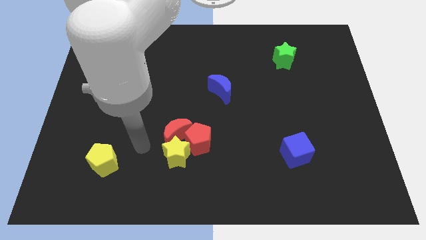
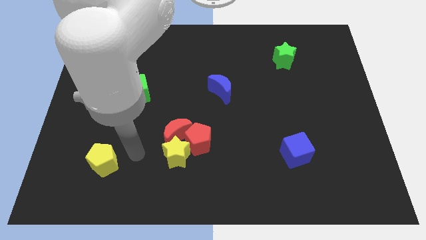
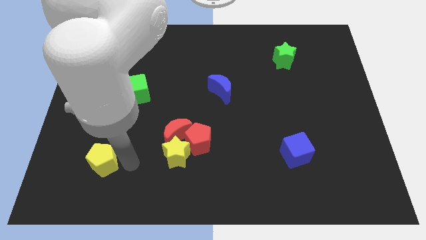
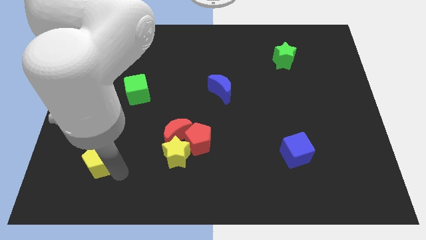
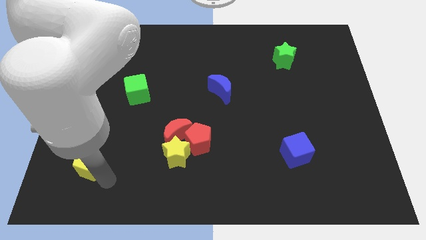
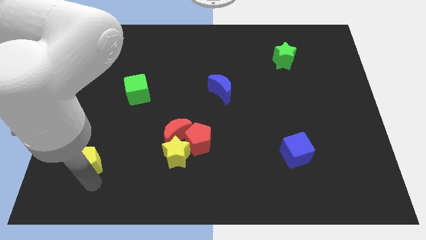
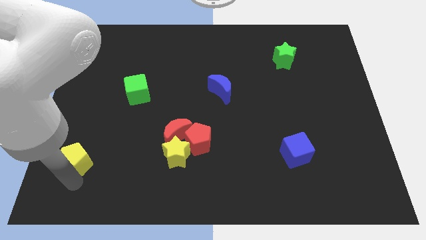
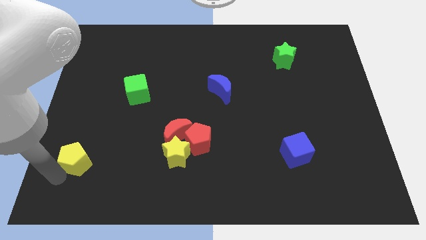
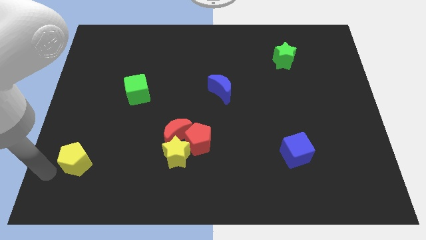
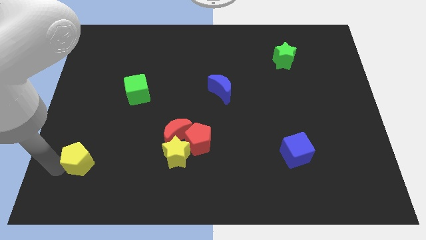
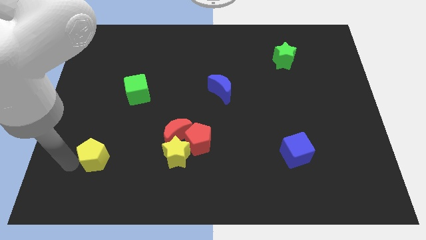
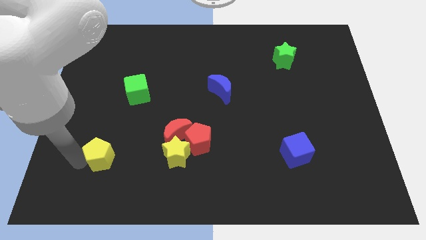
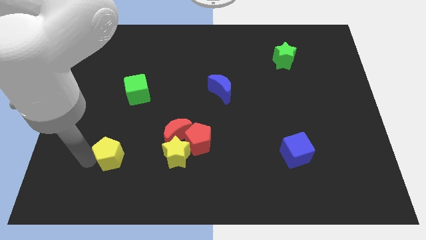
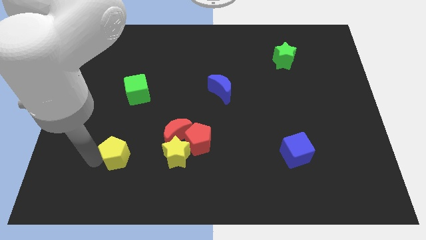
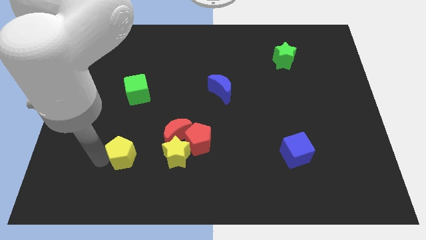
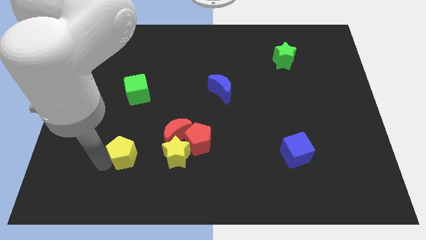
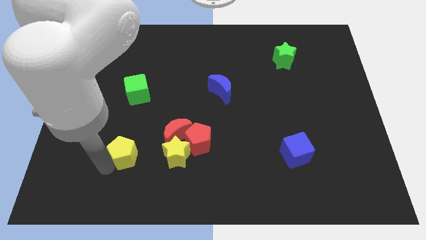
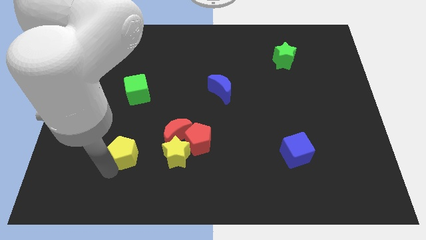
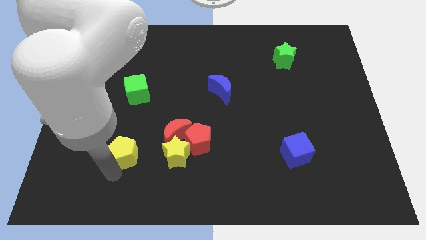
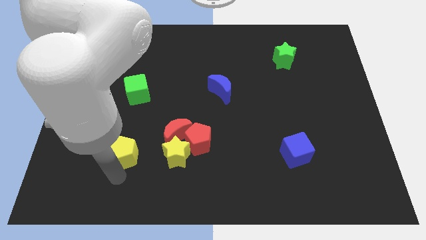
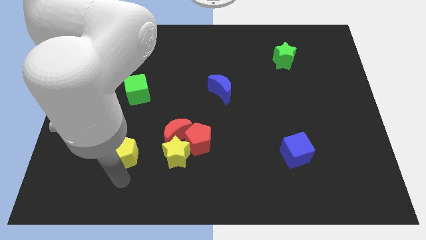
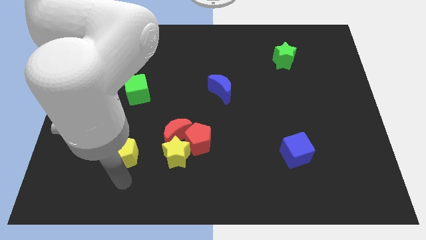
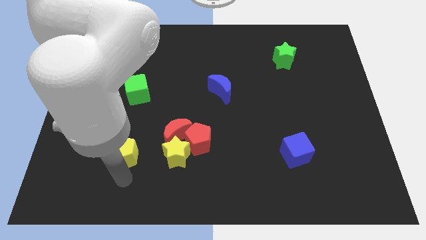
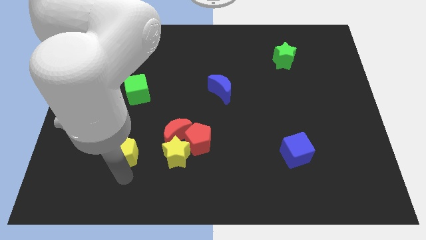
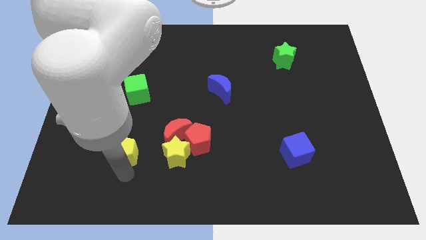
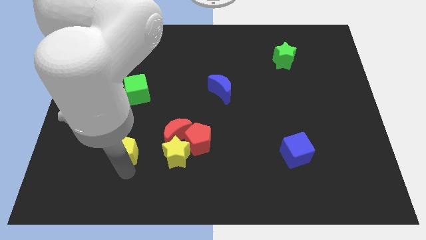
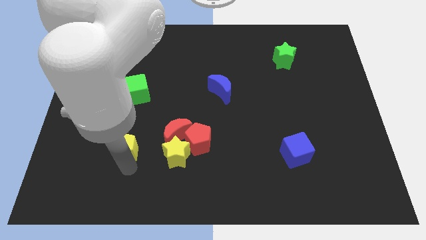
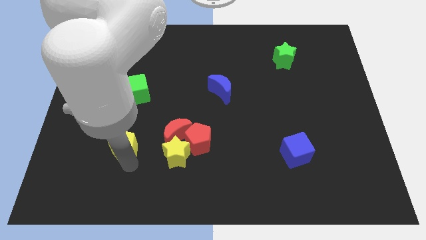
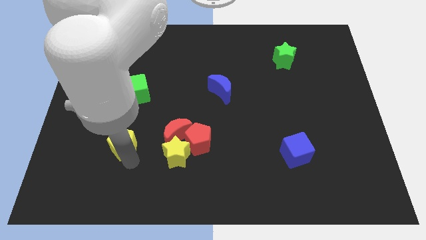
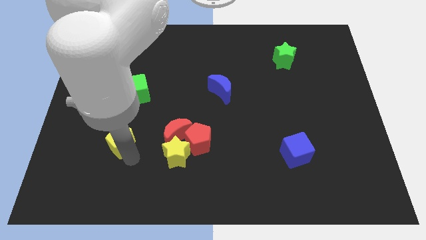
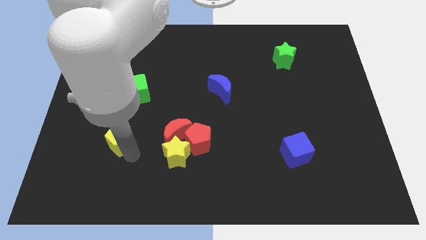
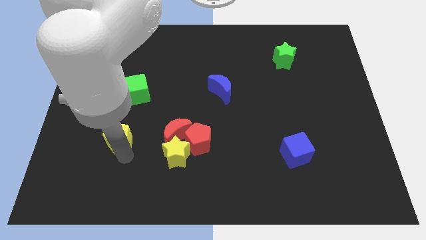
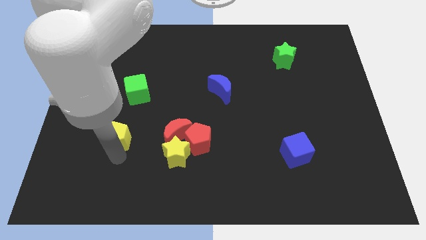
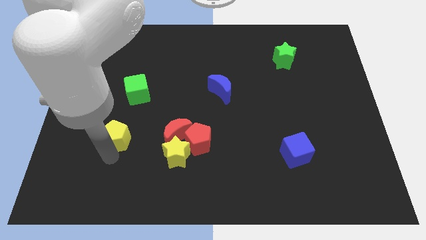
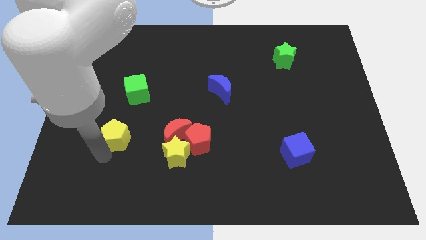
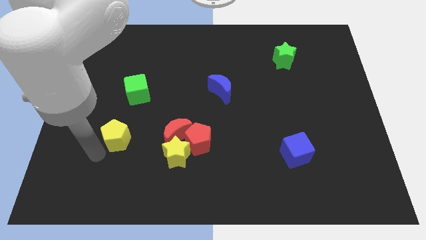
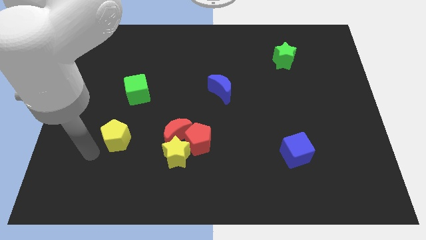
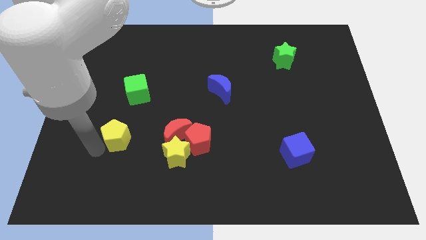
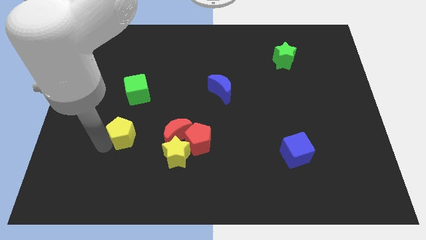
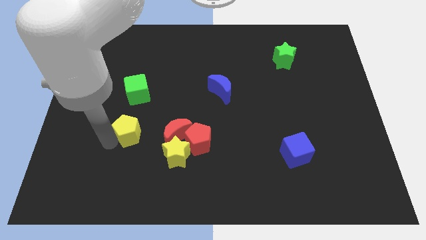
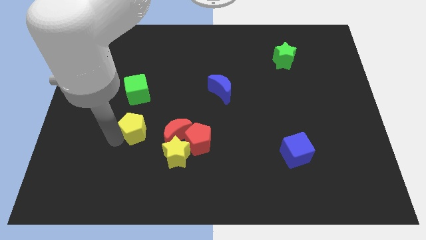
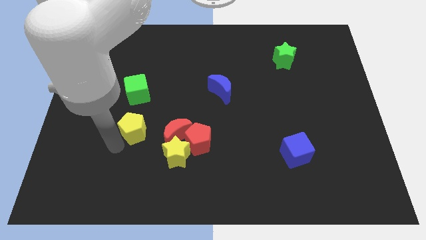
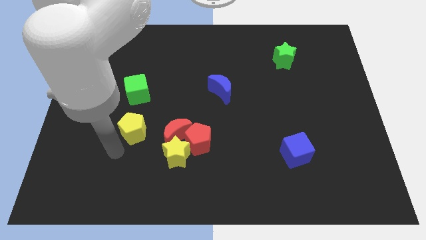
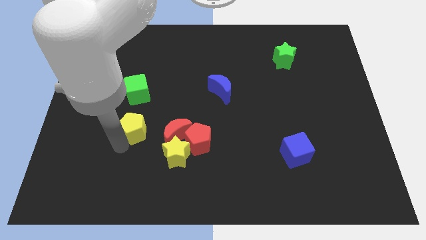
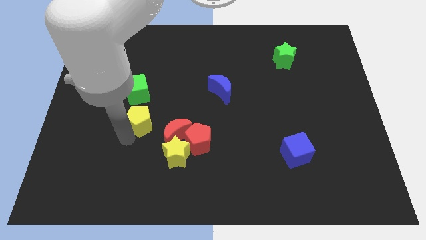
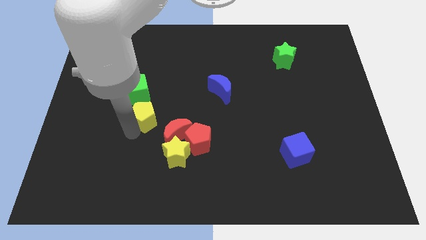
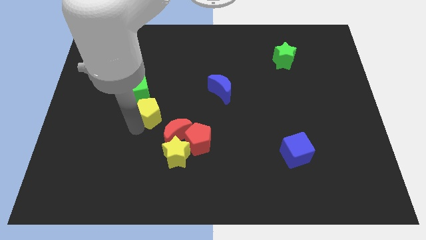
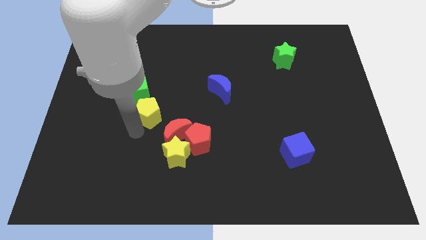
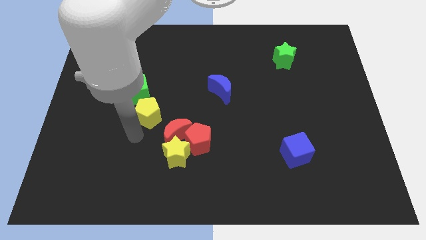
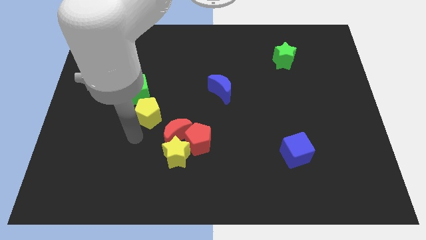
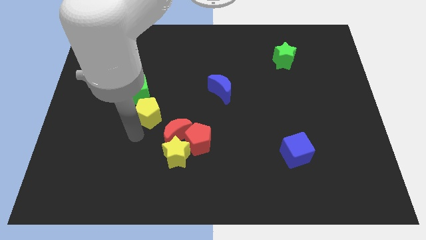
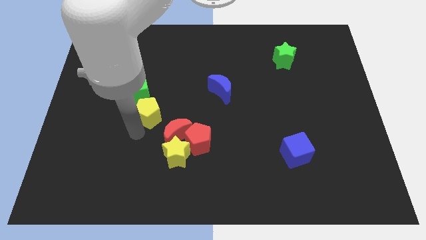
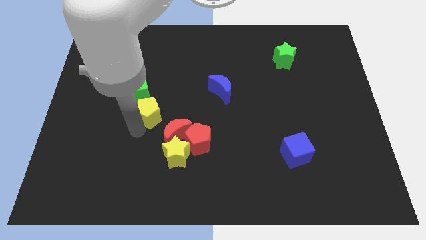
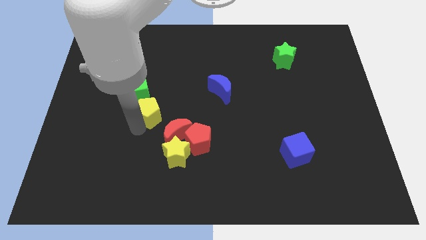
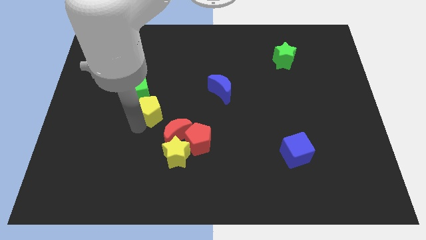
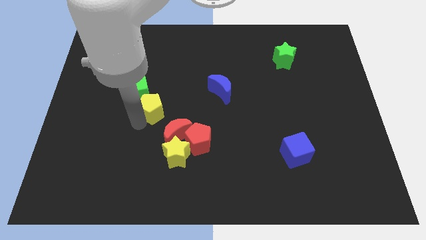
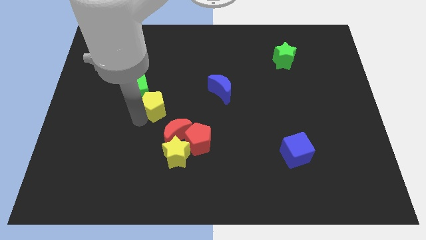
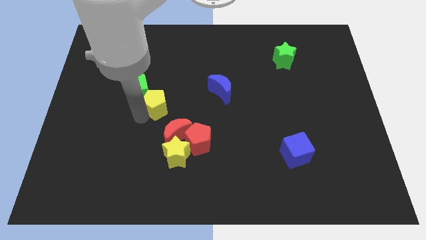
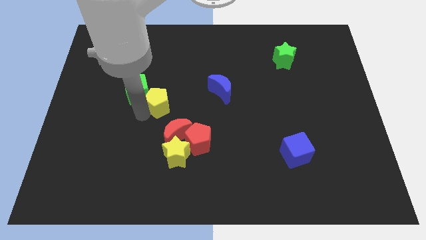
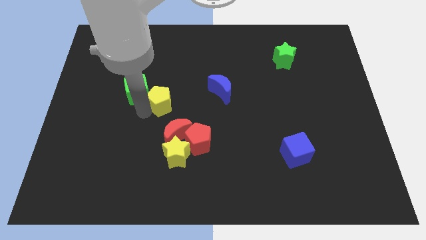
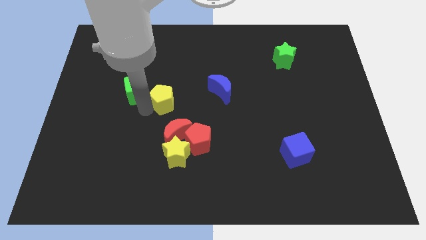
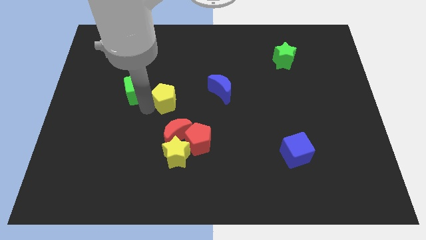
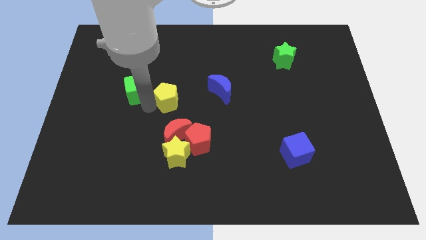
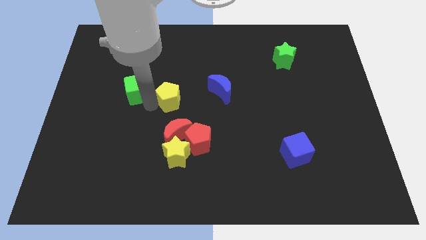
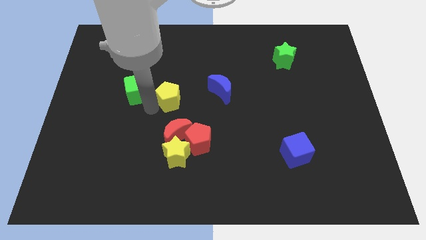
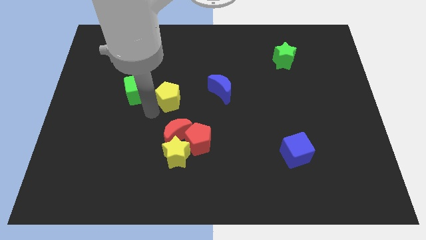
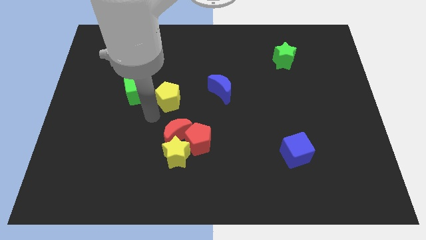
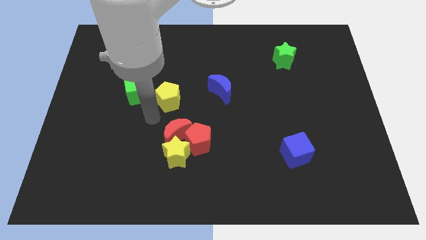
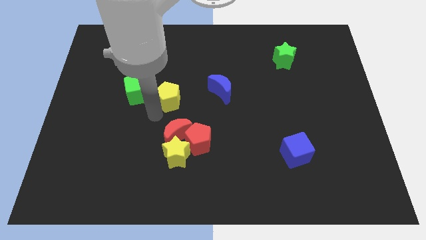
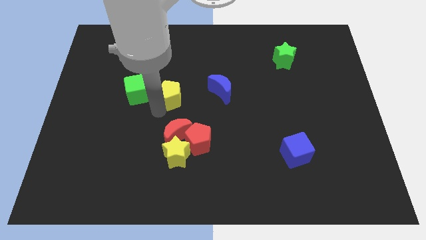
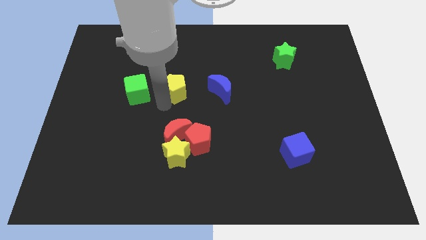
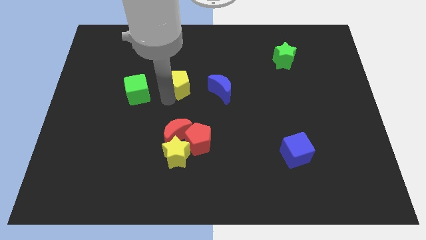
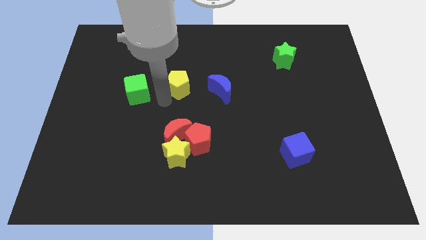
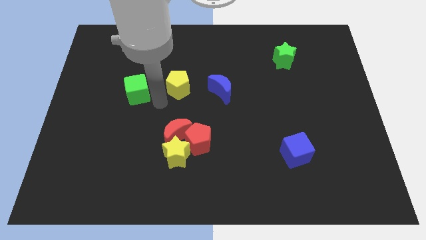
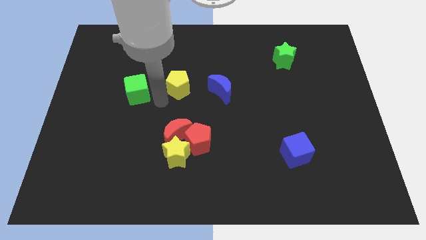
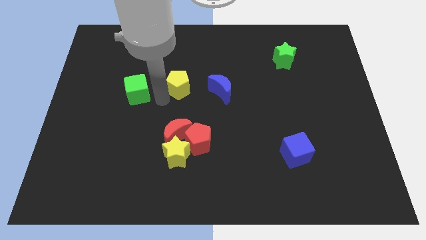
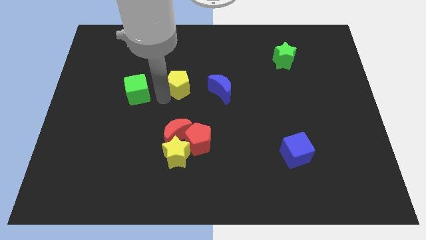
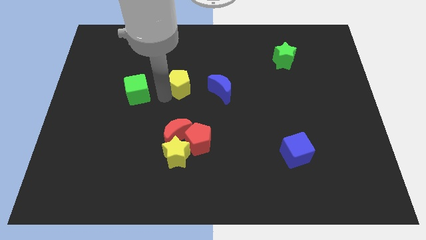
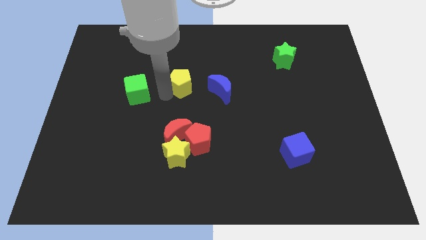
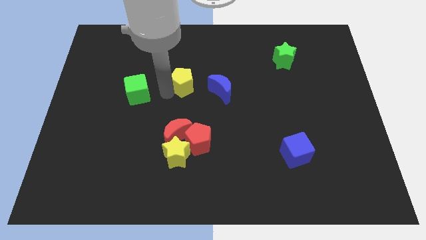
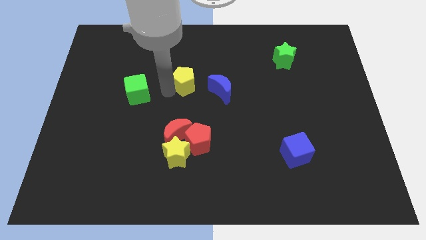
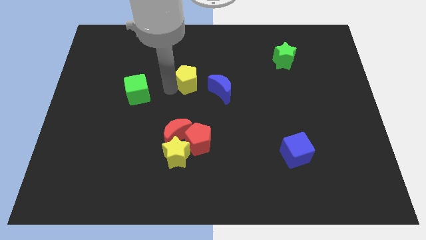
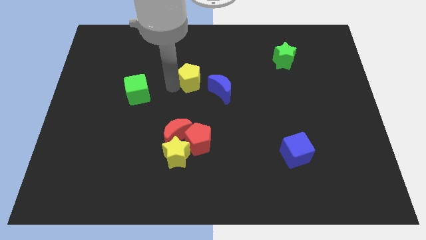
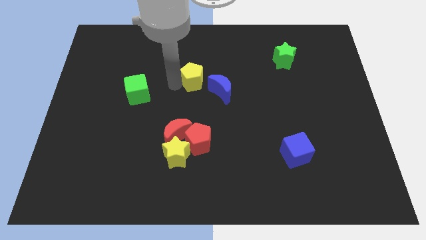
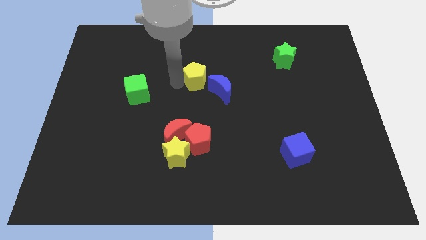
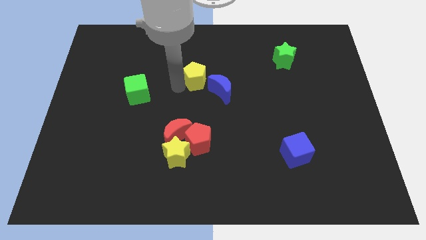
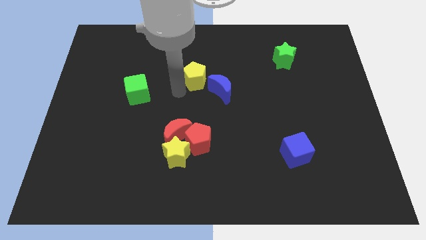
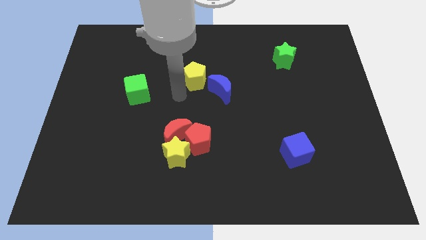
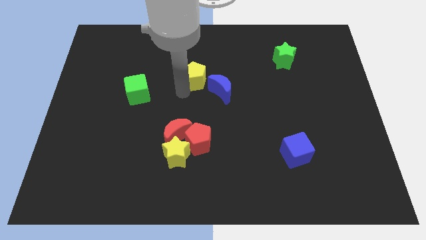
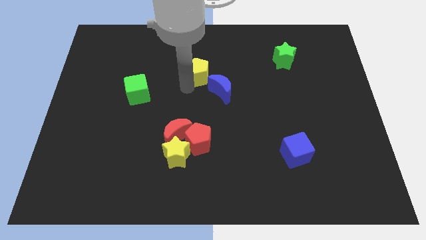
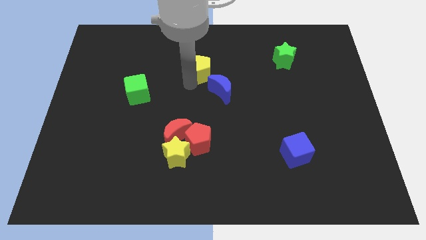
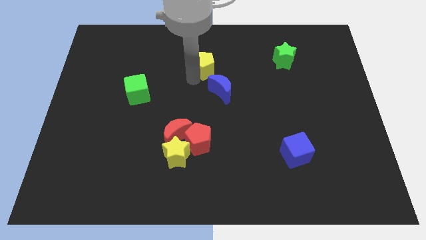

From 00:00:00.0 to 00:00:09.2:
slide the yellow pentagon above the blue moon
